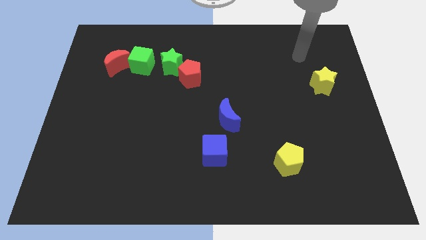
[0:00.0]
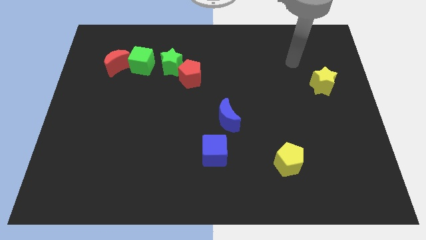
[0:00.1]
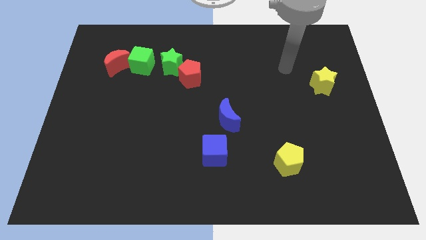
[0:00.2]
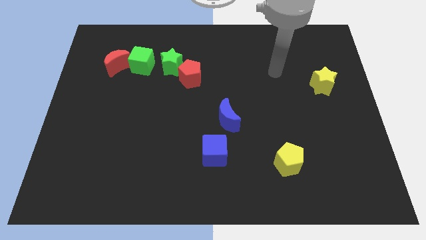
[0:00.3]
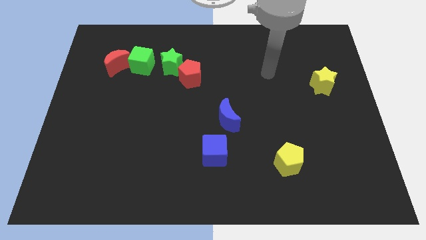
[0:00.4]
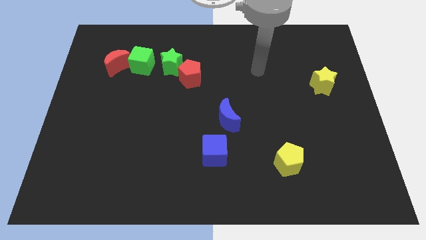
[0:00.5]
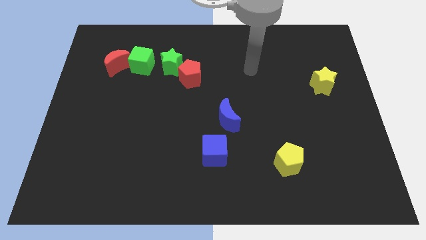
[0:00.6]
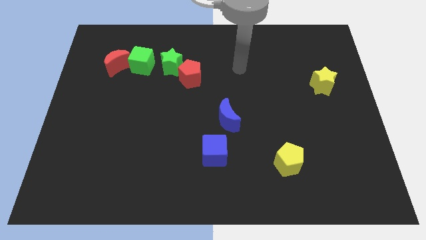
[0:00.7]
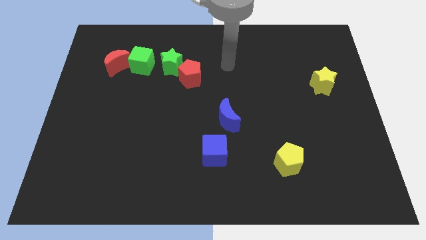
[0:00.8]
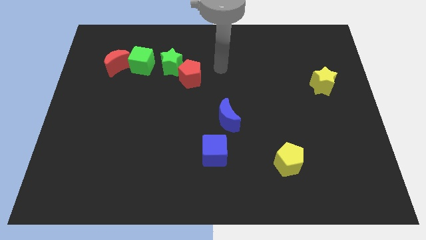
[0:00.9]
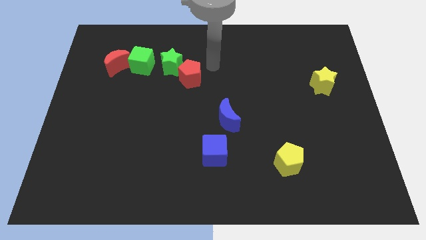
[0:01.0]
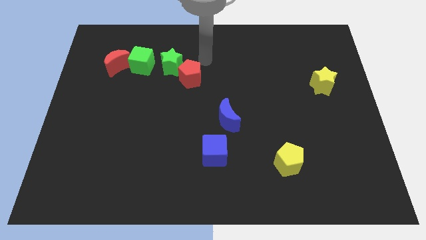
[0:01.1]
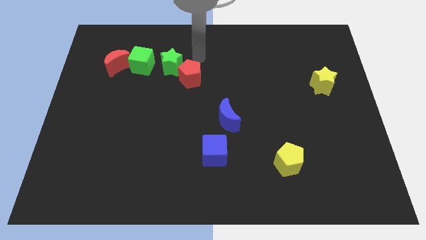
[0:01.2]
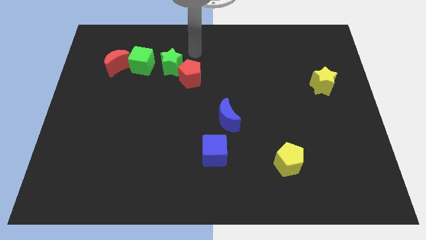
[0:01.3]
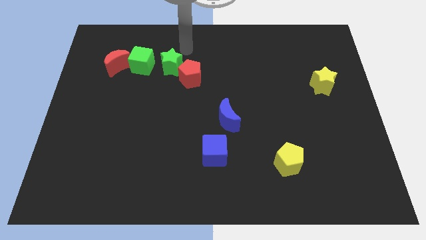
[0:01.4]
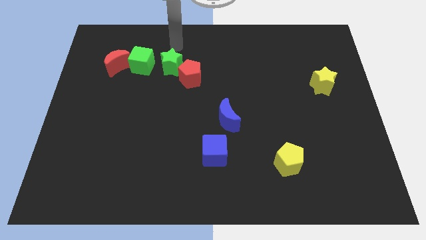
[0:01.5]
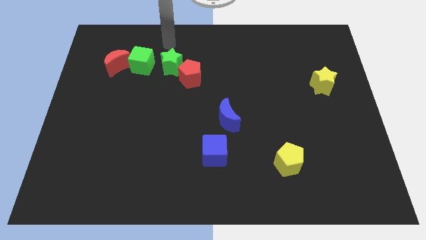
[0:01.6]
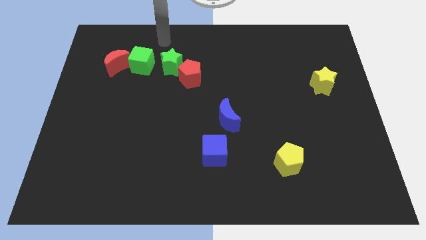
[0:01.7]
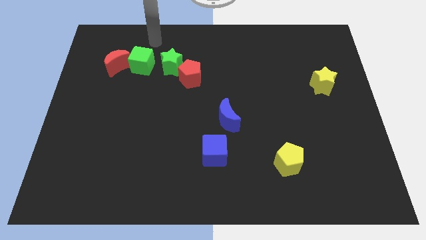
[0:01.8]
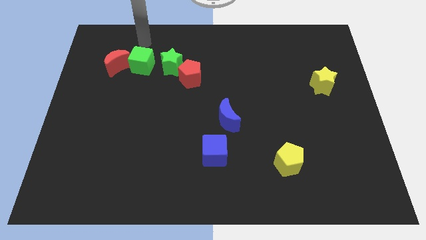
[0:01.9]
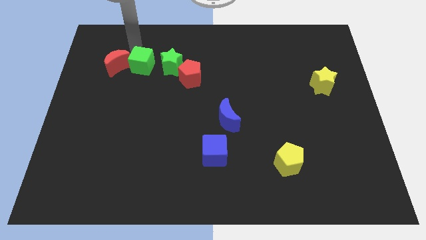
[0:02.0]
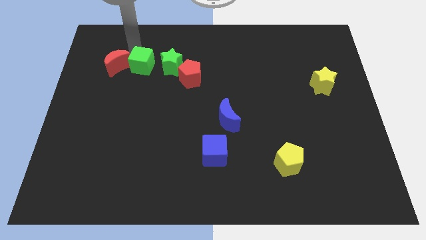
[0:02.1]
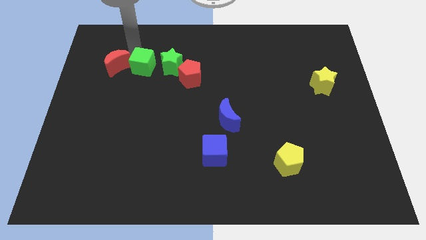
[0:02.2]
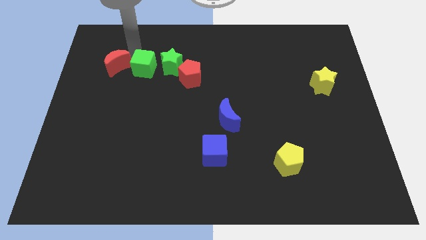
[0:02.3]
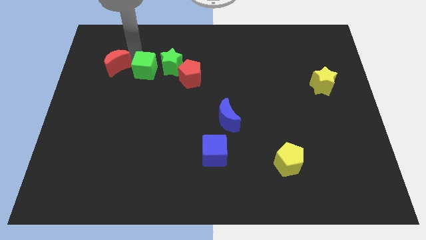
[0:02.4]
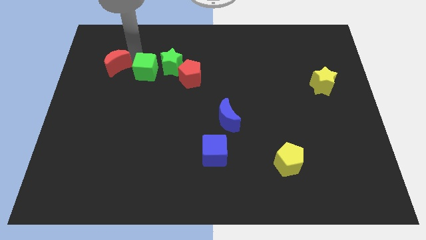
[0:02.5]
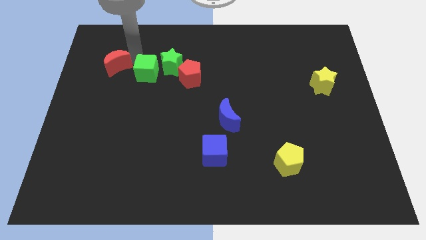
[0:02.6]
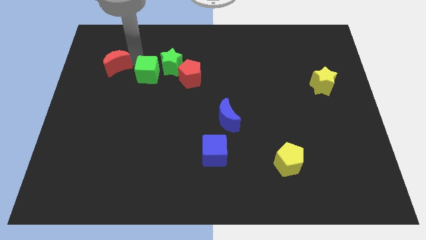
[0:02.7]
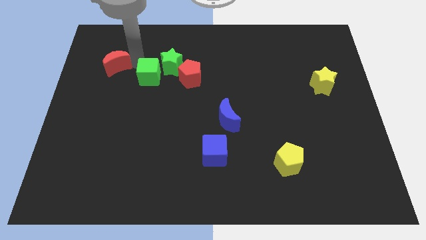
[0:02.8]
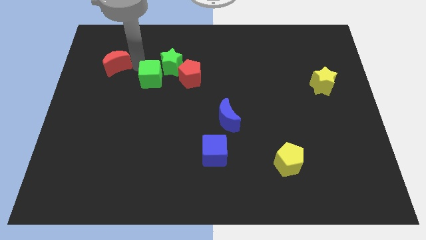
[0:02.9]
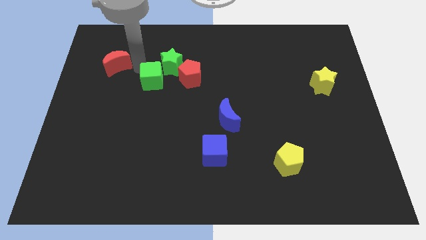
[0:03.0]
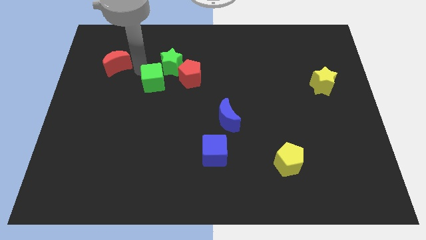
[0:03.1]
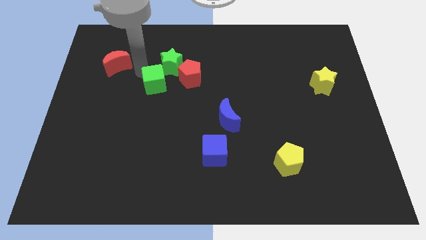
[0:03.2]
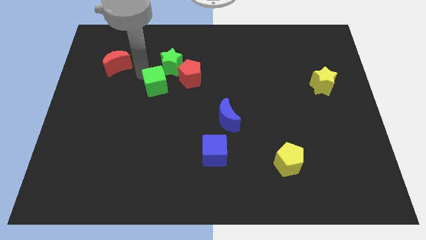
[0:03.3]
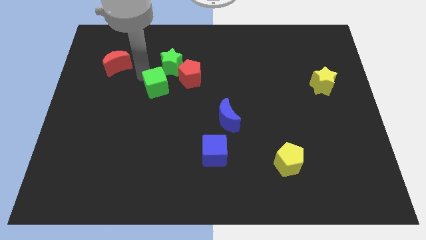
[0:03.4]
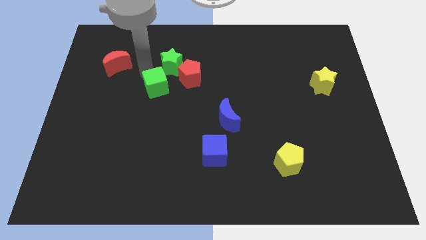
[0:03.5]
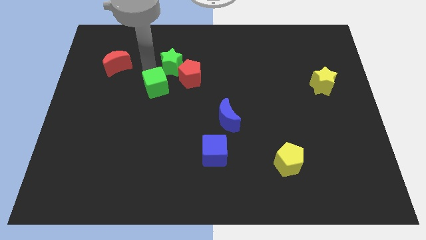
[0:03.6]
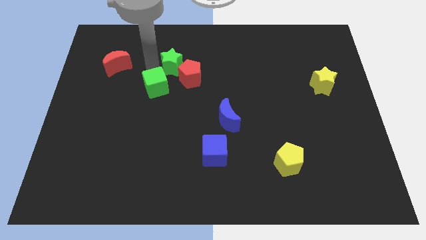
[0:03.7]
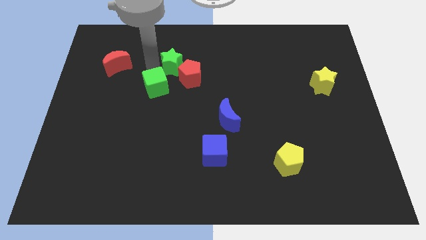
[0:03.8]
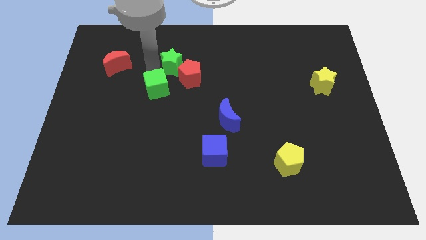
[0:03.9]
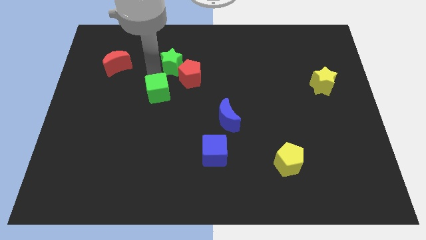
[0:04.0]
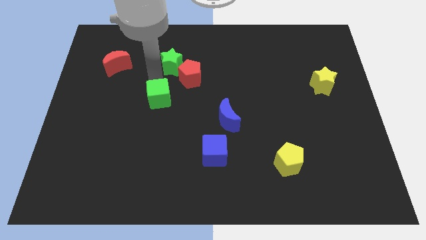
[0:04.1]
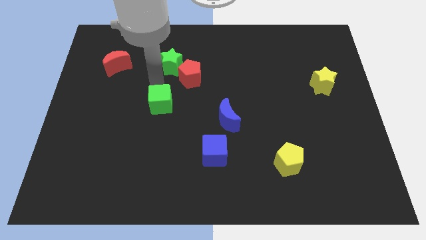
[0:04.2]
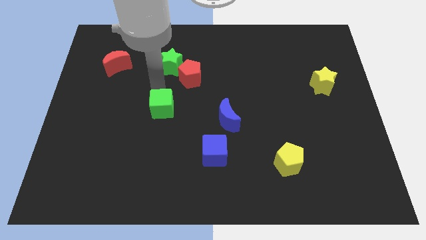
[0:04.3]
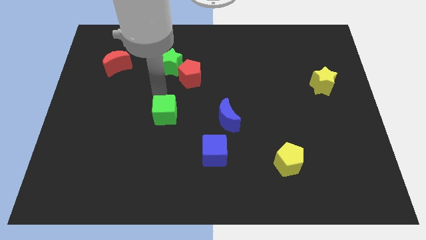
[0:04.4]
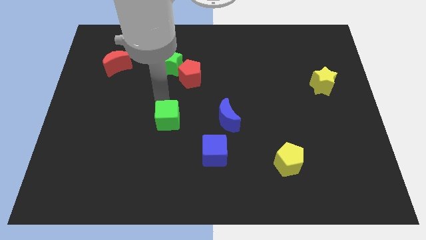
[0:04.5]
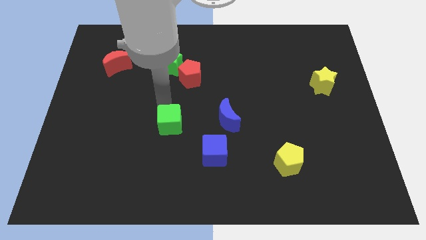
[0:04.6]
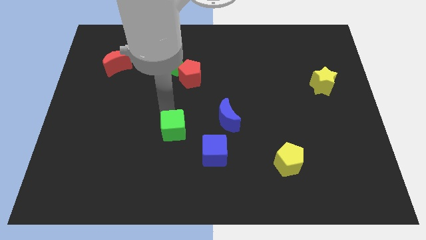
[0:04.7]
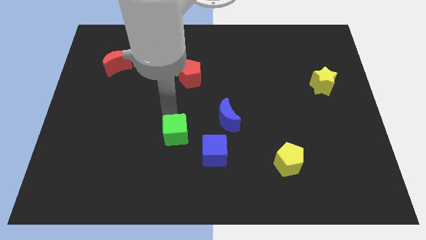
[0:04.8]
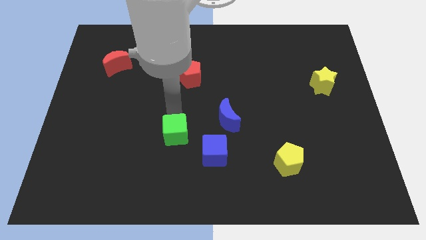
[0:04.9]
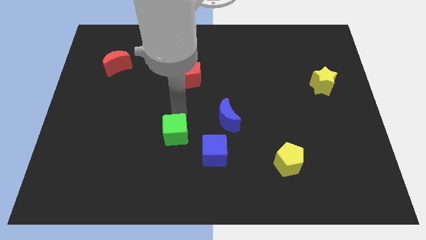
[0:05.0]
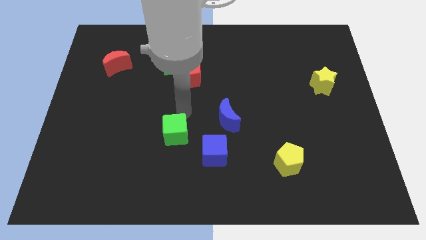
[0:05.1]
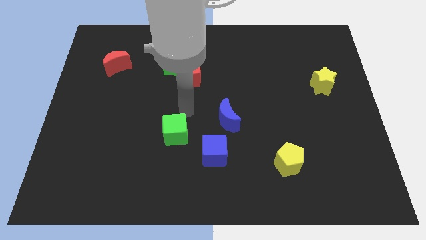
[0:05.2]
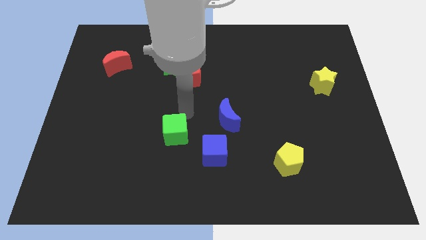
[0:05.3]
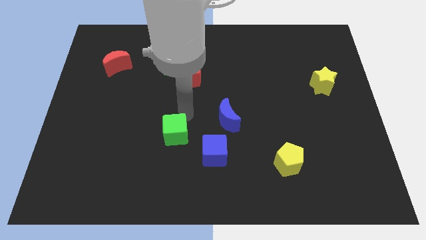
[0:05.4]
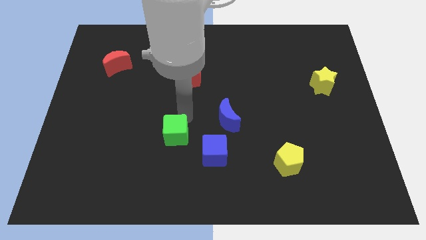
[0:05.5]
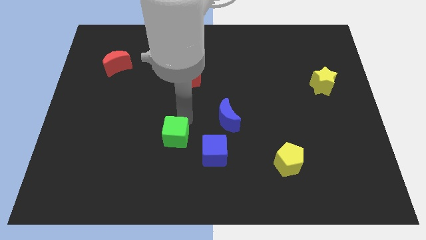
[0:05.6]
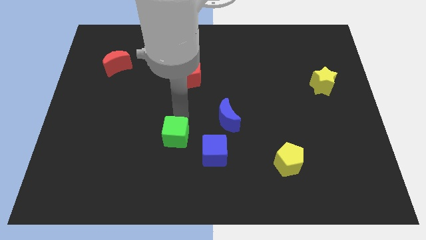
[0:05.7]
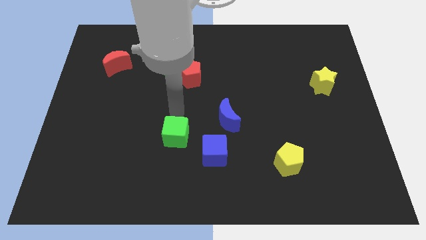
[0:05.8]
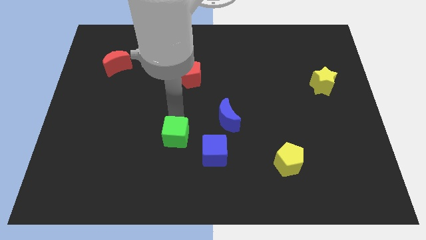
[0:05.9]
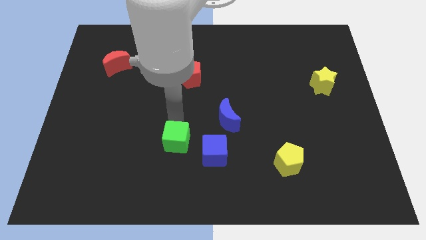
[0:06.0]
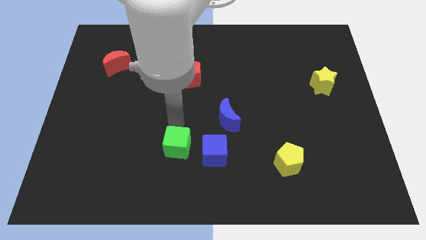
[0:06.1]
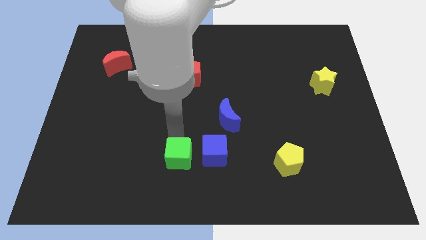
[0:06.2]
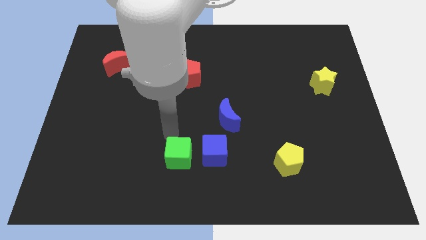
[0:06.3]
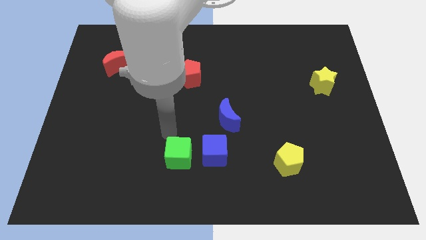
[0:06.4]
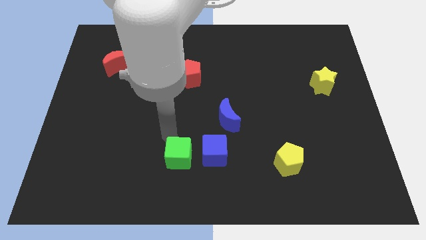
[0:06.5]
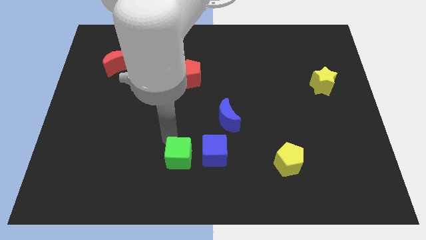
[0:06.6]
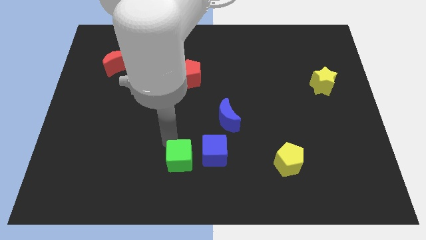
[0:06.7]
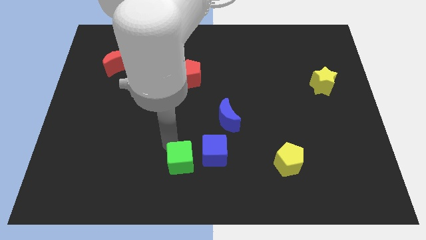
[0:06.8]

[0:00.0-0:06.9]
slide the green cube to the bottom side
